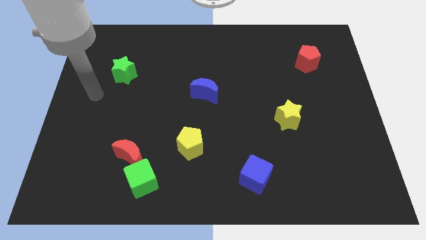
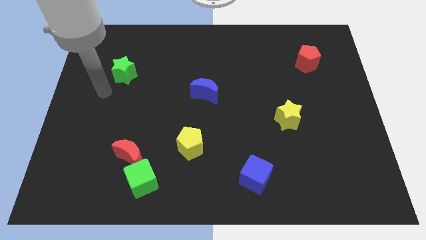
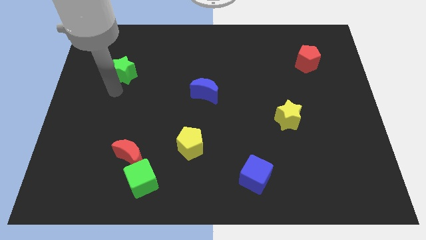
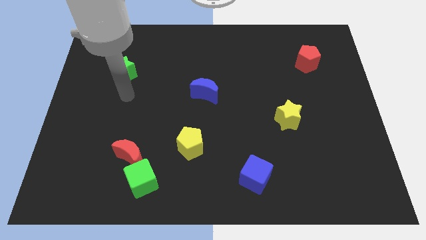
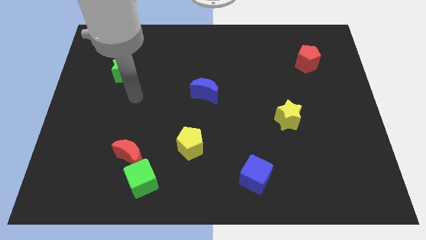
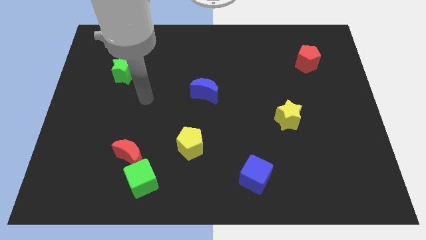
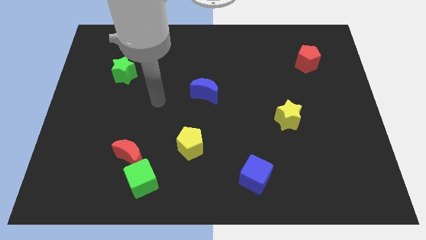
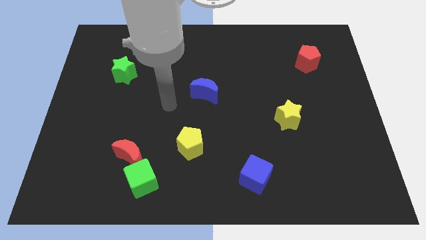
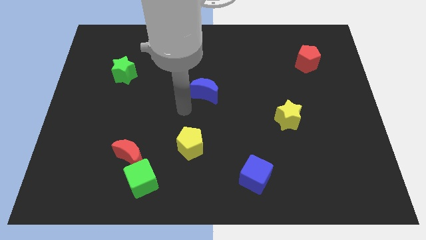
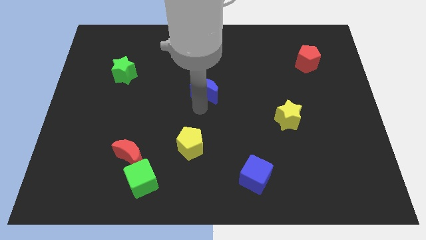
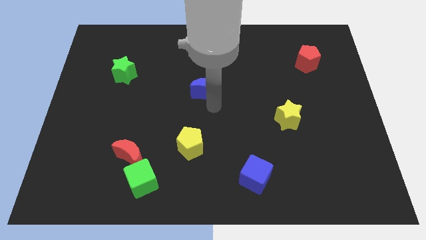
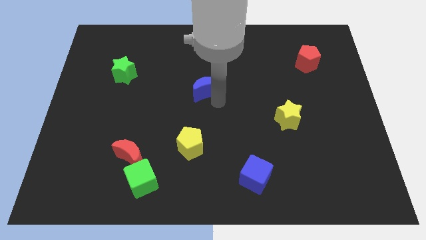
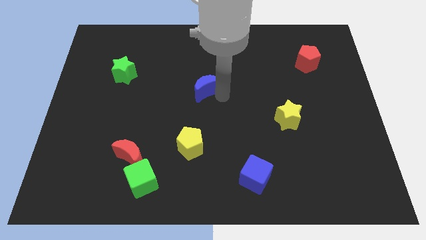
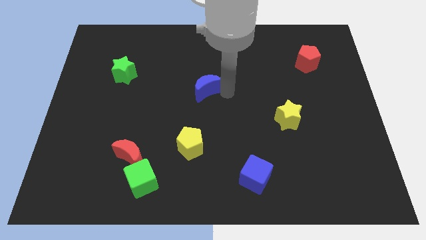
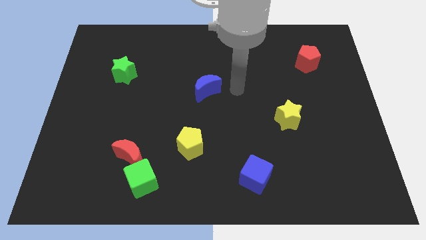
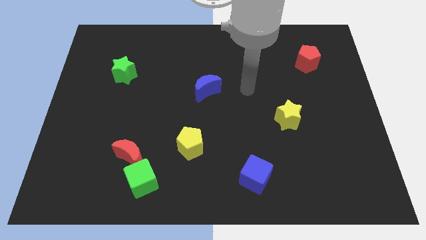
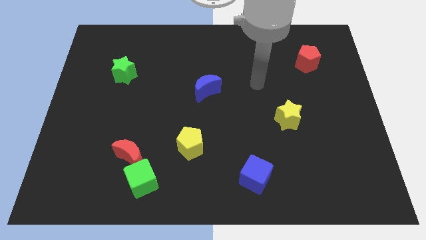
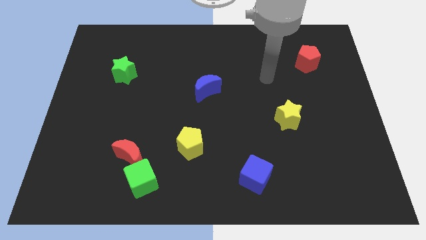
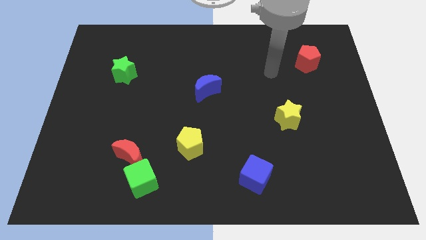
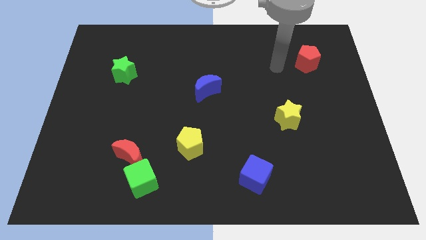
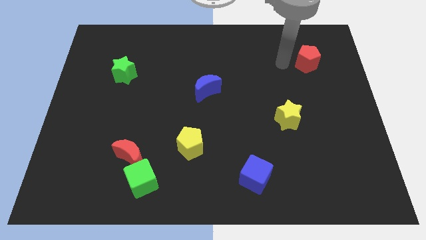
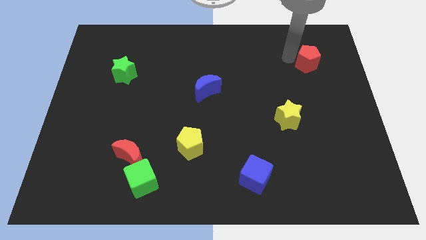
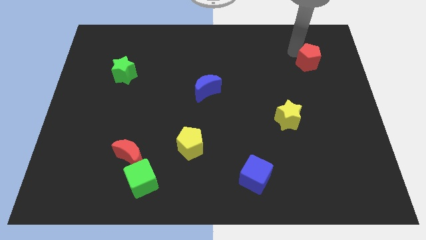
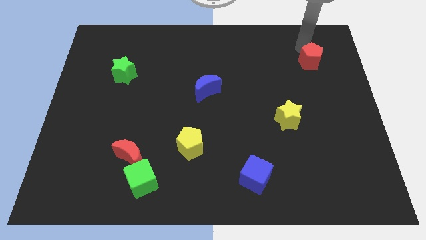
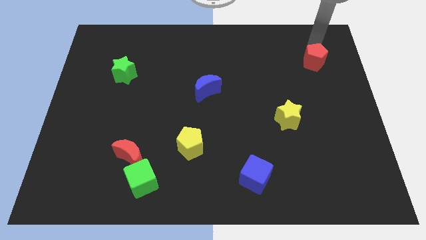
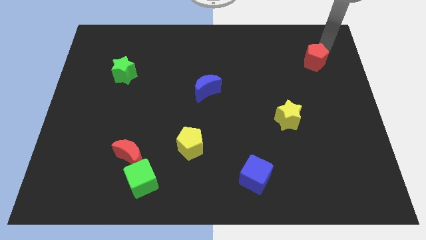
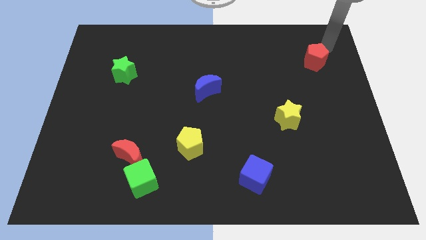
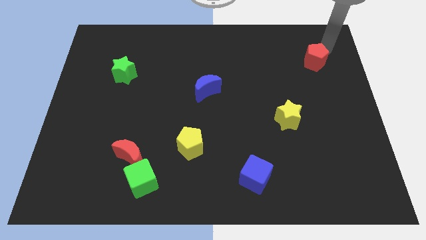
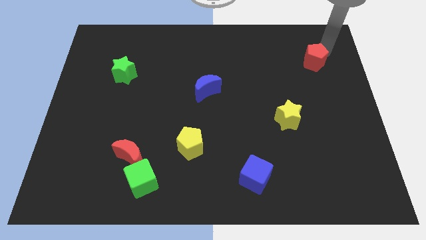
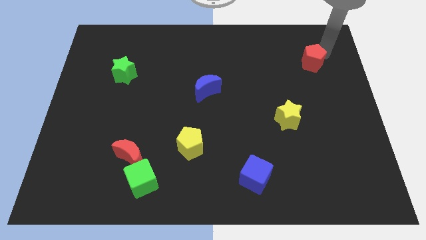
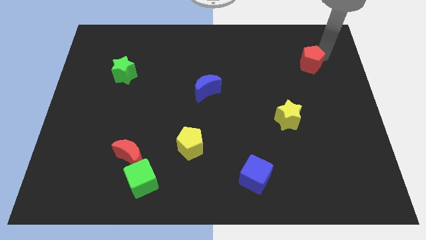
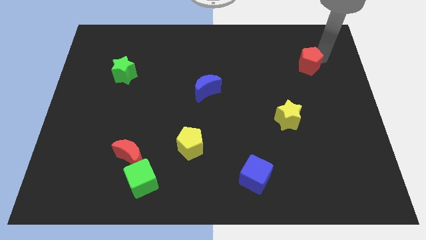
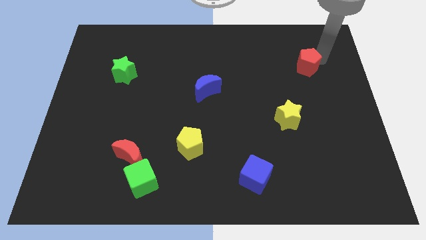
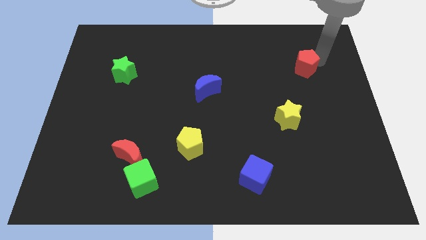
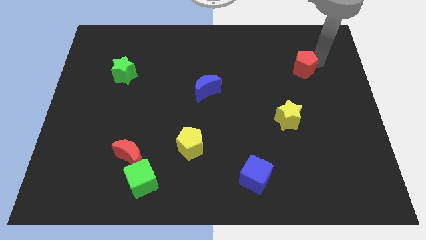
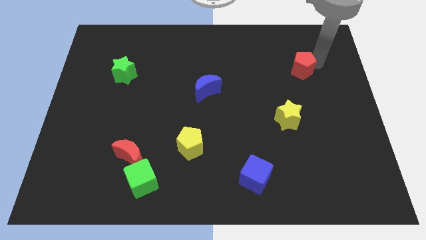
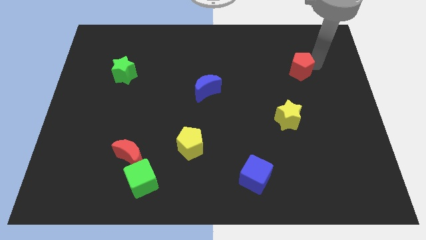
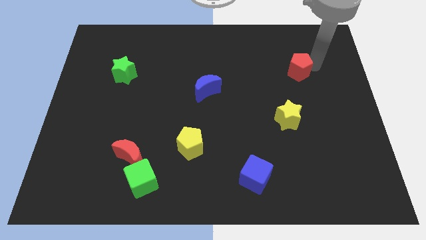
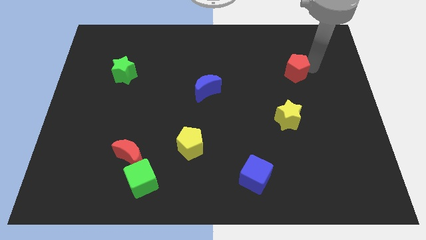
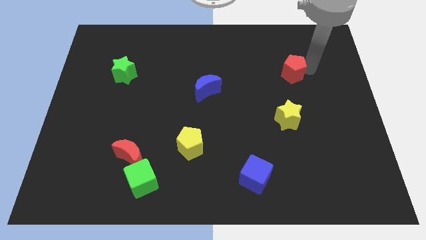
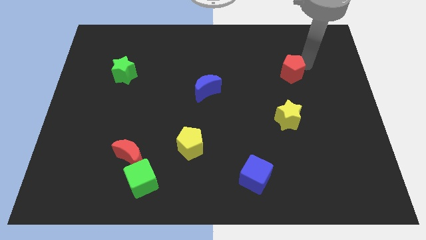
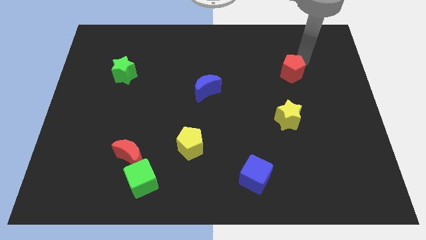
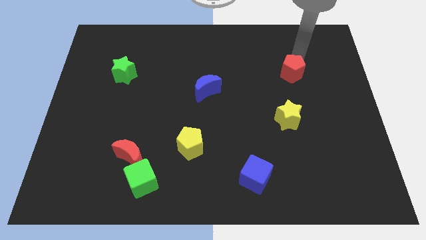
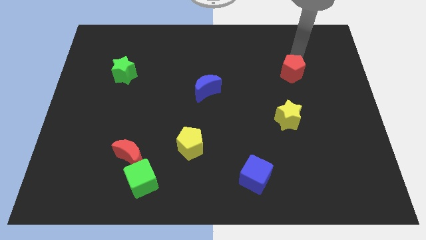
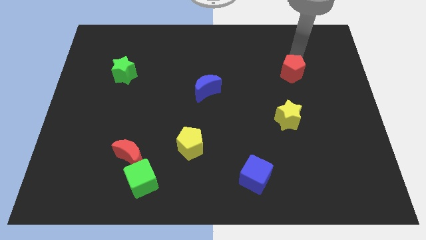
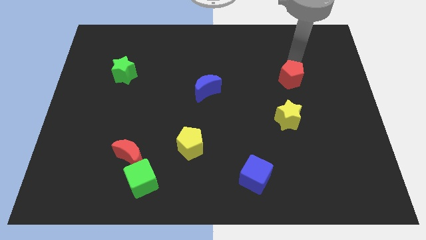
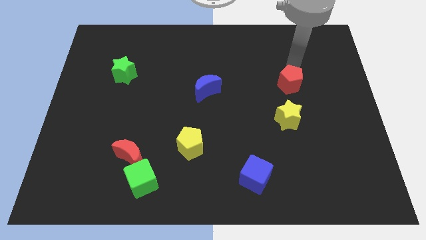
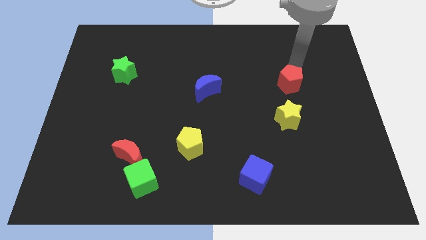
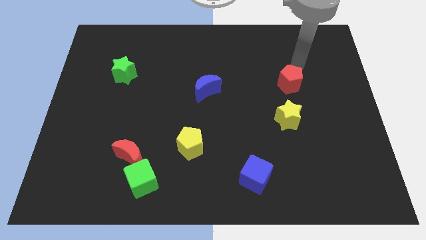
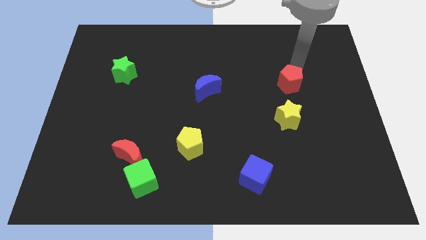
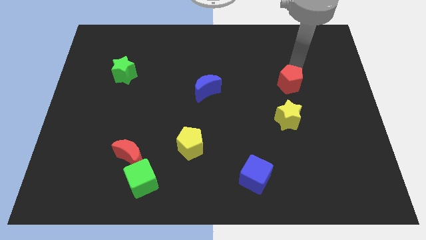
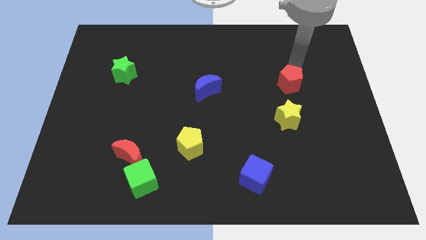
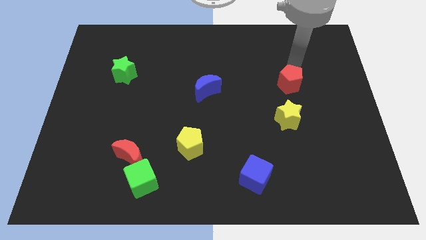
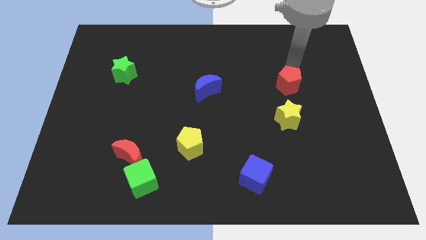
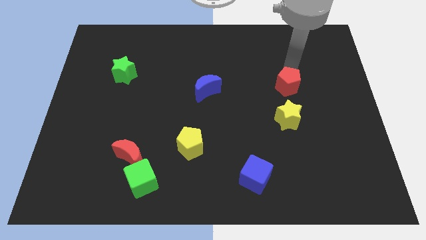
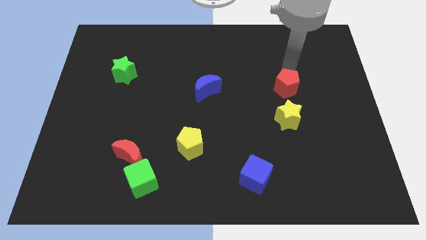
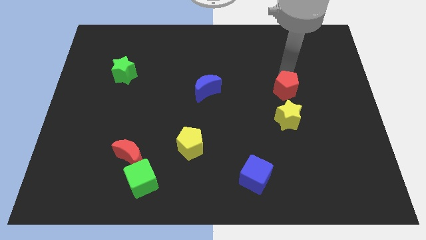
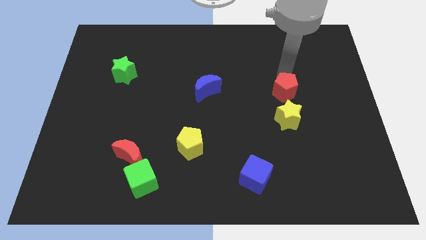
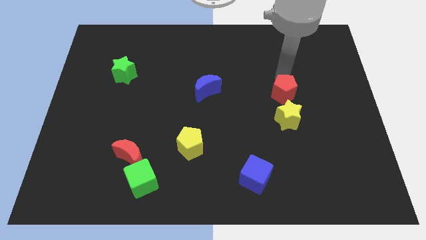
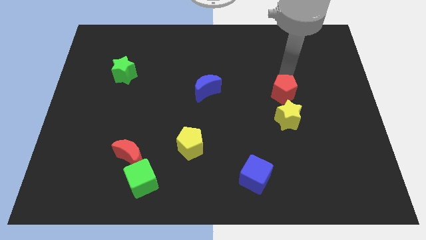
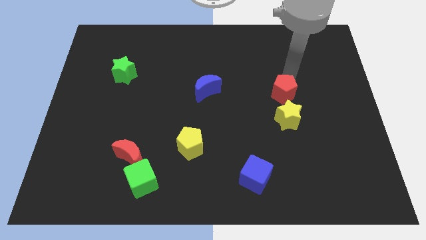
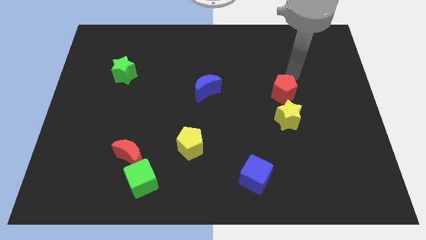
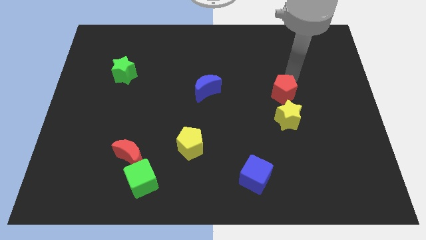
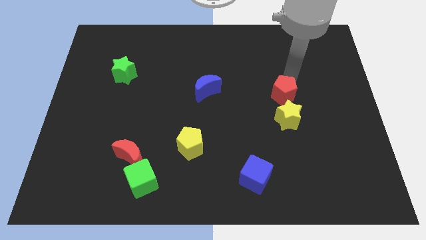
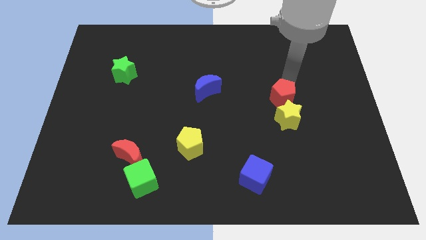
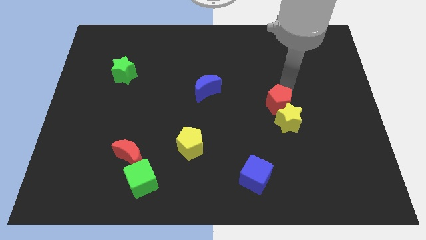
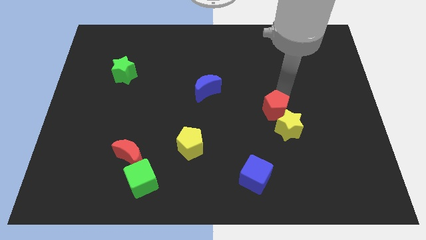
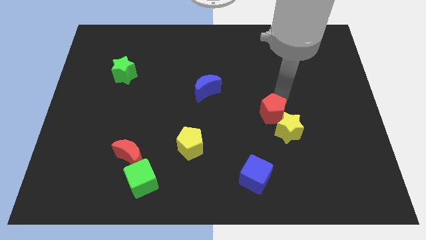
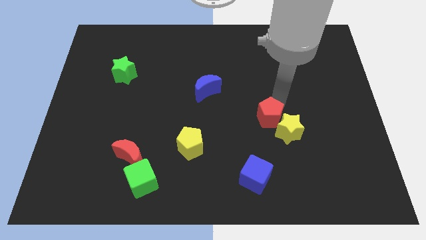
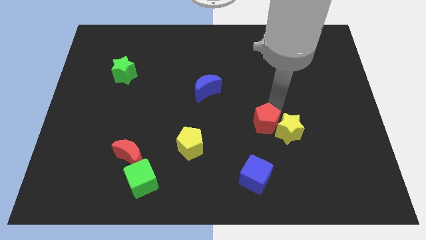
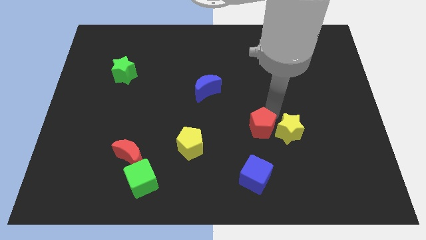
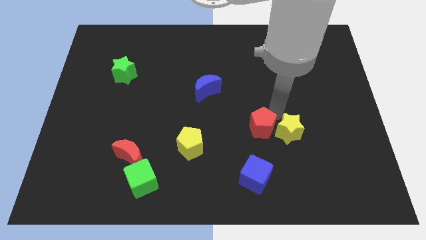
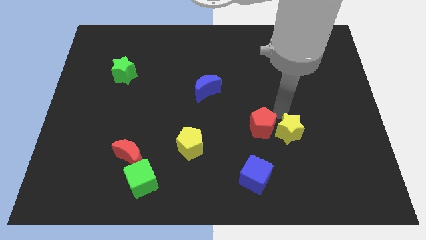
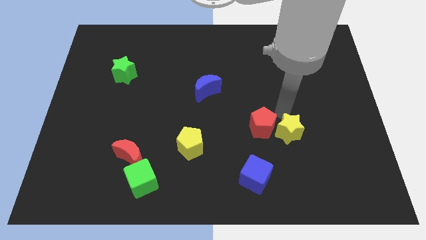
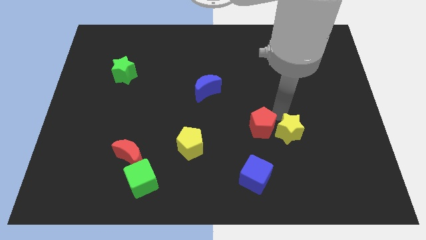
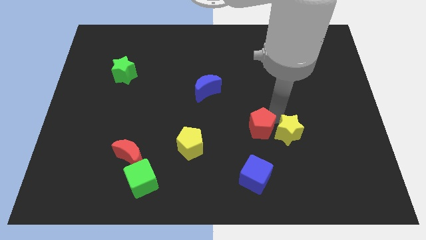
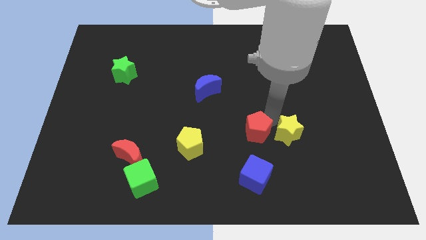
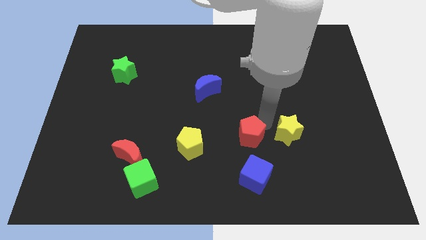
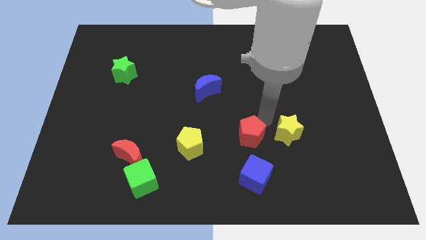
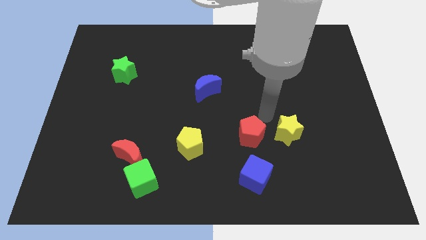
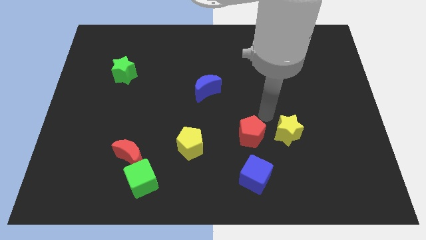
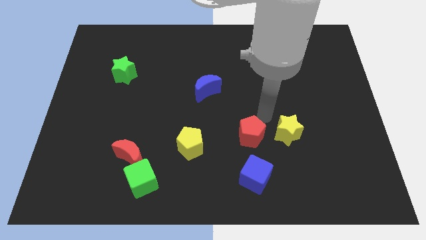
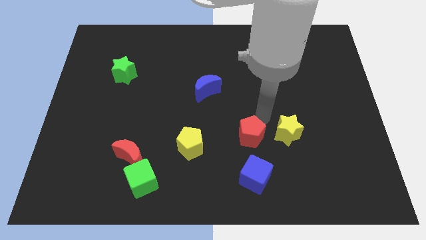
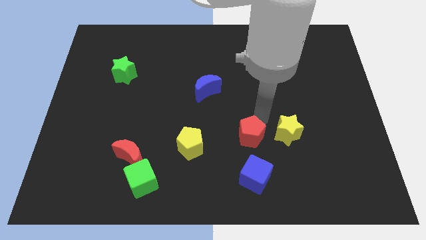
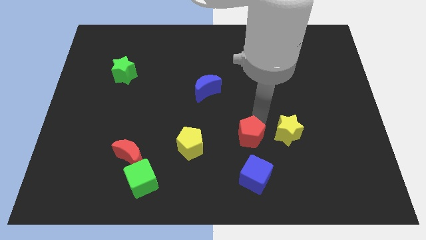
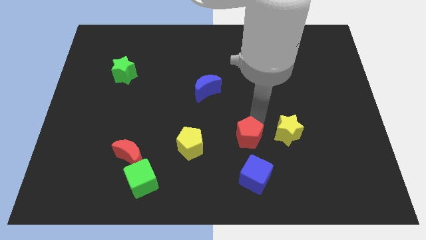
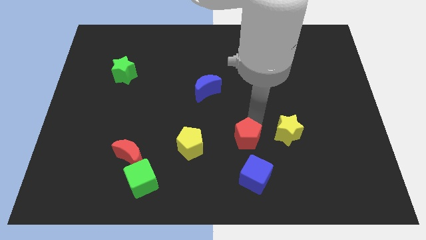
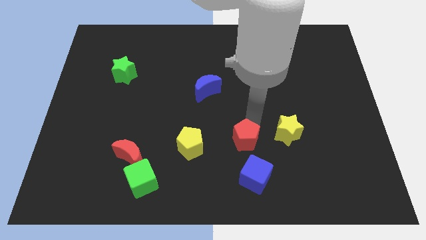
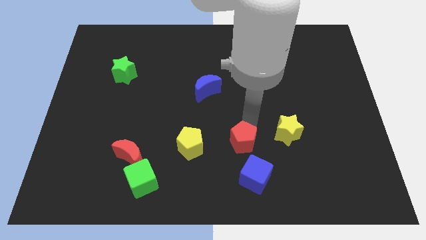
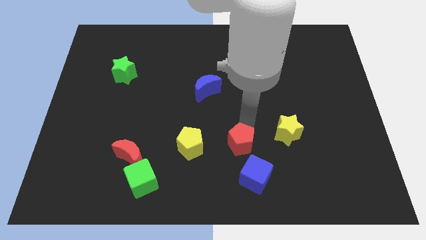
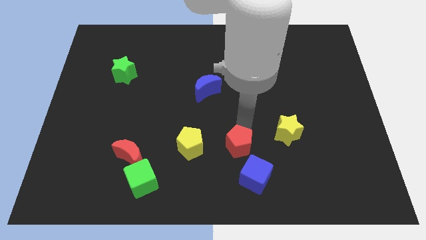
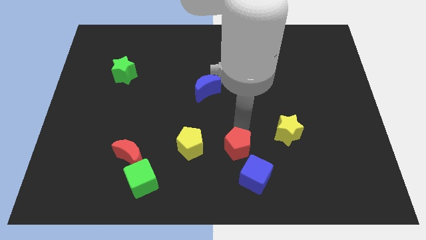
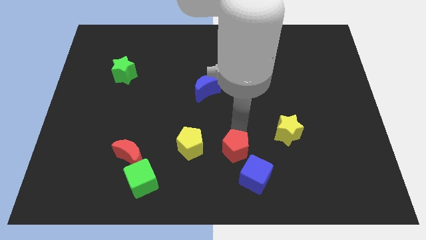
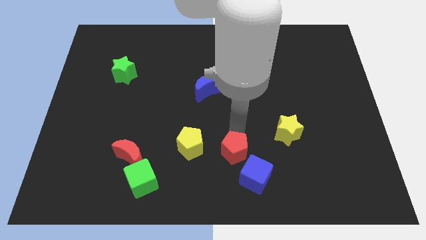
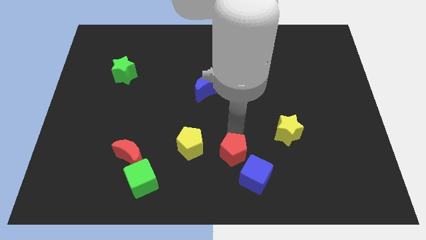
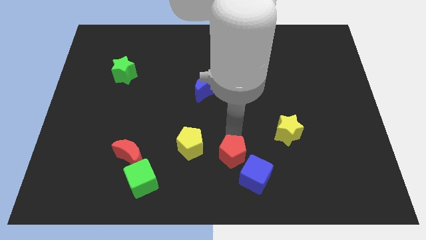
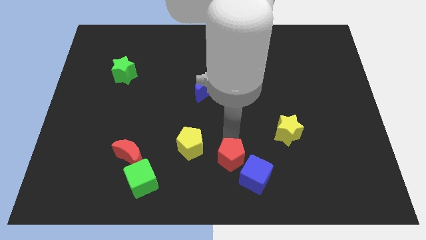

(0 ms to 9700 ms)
push the red pentagon to the bottom
